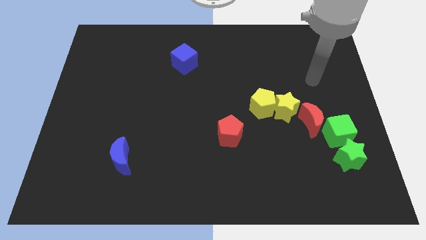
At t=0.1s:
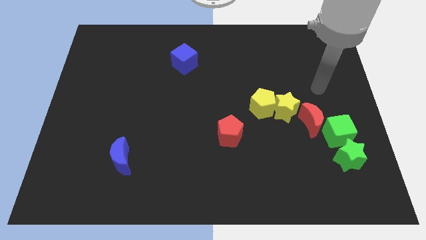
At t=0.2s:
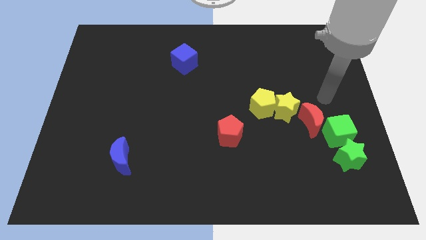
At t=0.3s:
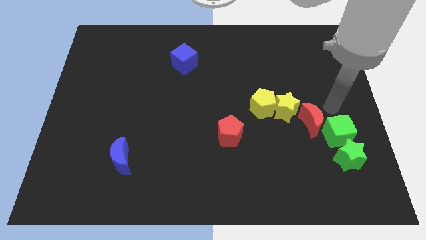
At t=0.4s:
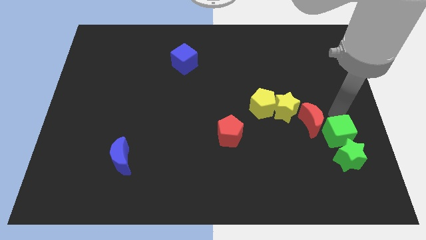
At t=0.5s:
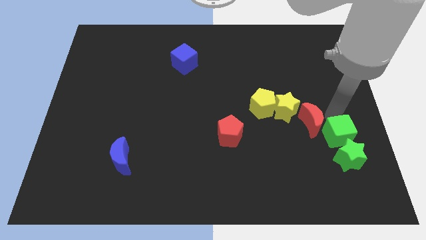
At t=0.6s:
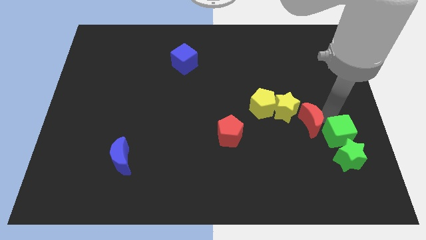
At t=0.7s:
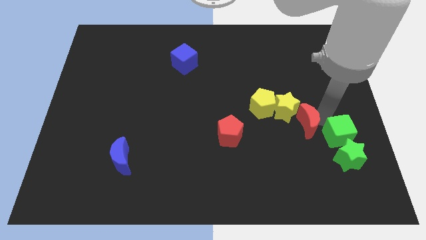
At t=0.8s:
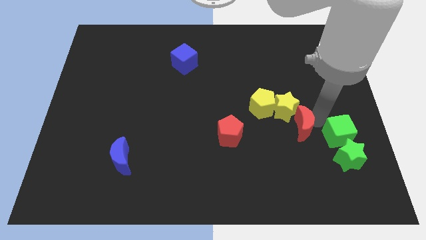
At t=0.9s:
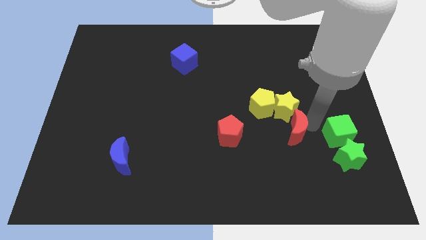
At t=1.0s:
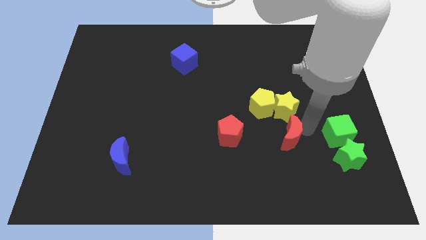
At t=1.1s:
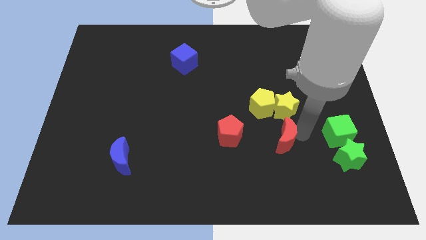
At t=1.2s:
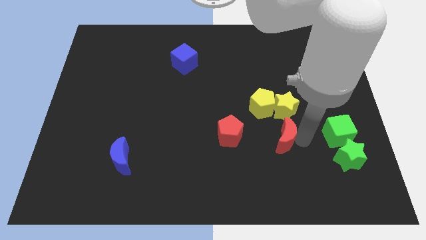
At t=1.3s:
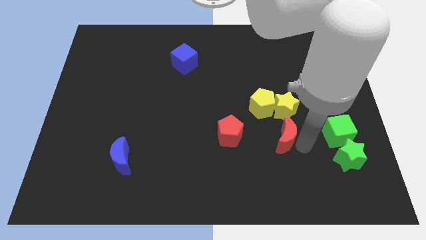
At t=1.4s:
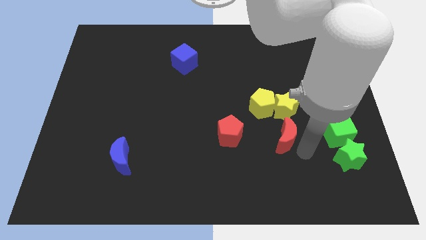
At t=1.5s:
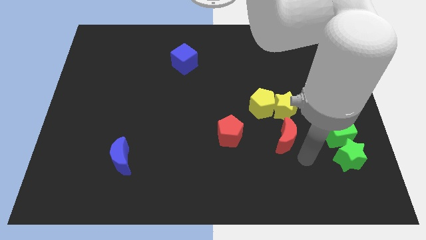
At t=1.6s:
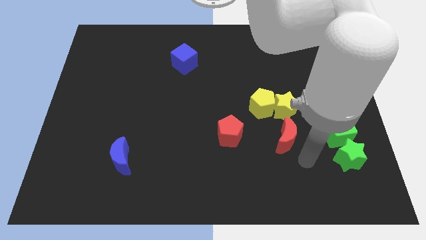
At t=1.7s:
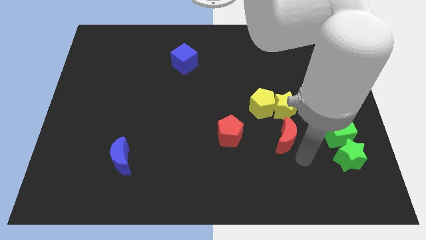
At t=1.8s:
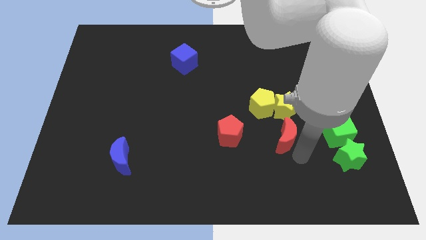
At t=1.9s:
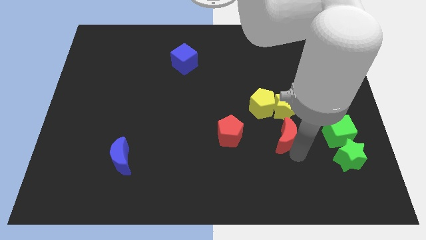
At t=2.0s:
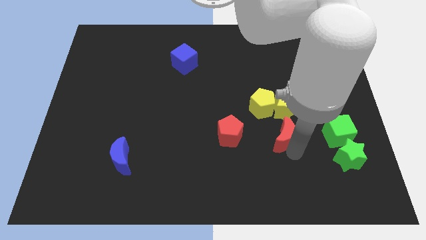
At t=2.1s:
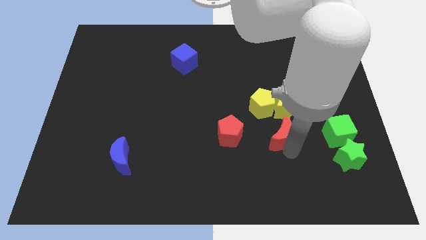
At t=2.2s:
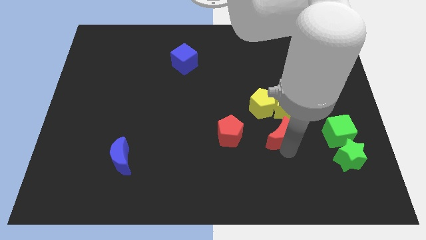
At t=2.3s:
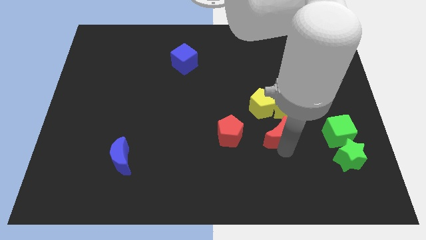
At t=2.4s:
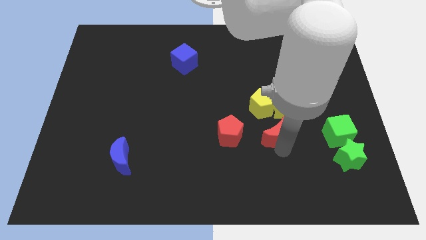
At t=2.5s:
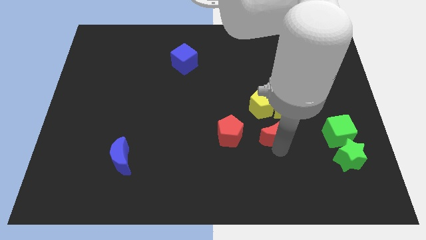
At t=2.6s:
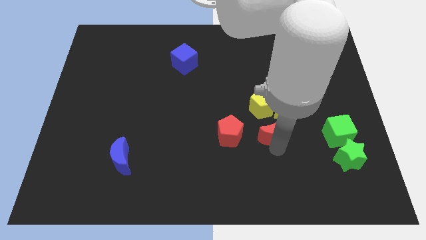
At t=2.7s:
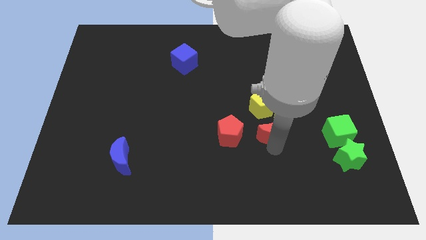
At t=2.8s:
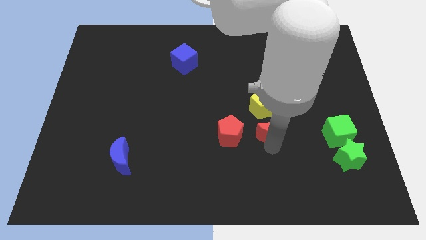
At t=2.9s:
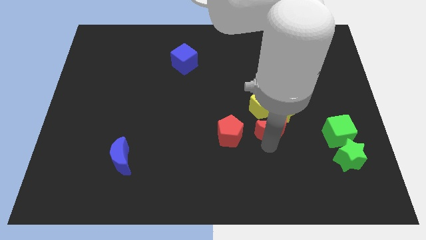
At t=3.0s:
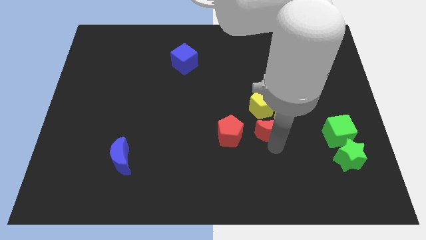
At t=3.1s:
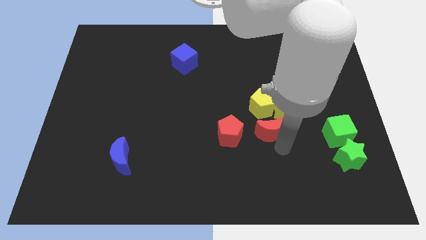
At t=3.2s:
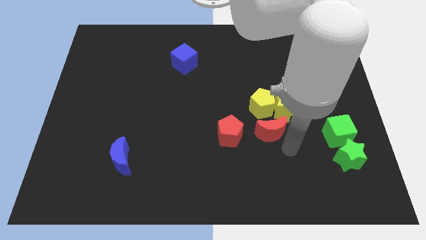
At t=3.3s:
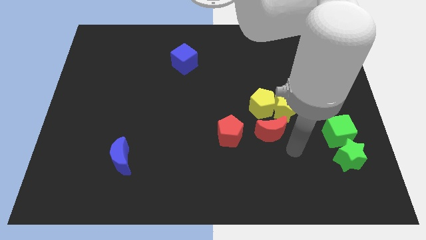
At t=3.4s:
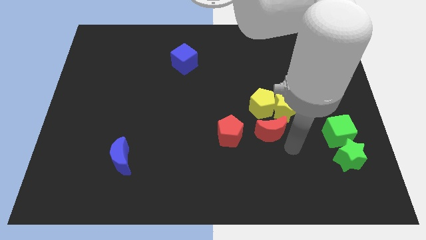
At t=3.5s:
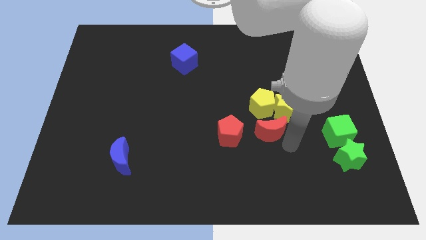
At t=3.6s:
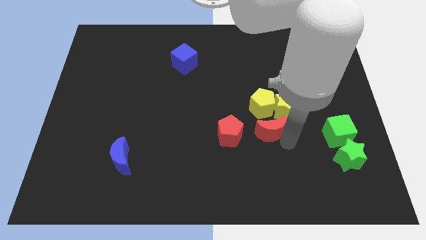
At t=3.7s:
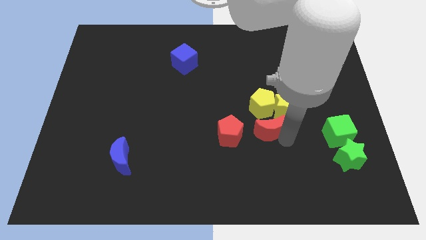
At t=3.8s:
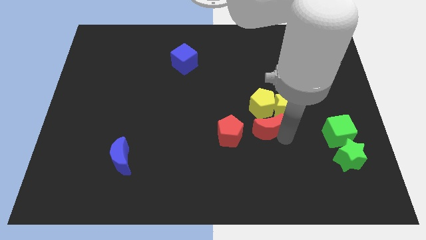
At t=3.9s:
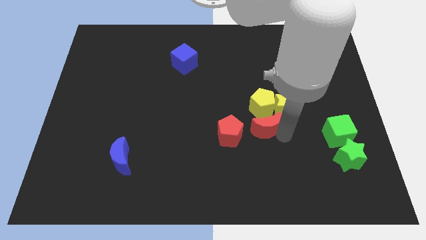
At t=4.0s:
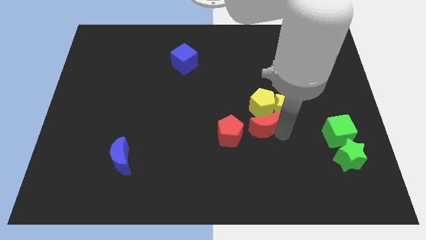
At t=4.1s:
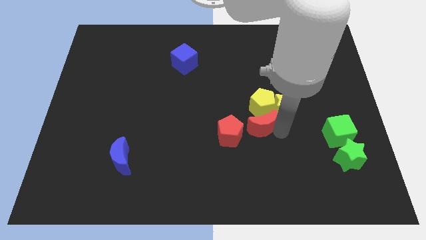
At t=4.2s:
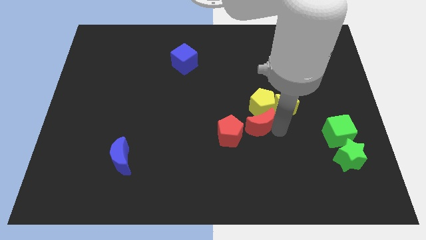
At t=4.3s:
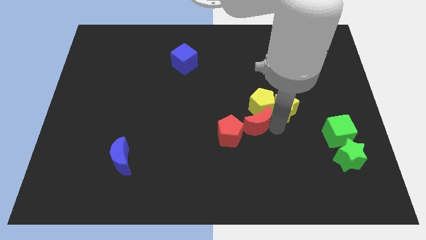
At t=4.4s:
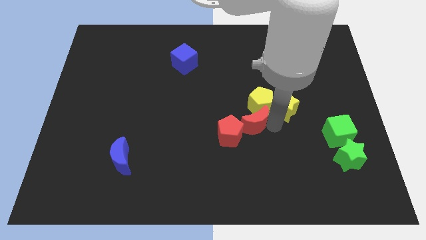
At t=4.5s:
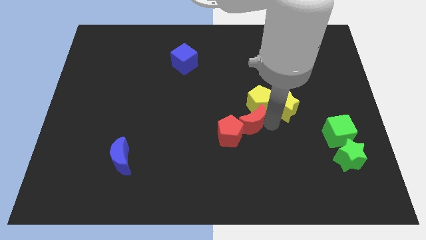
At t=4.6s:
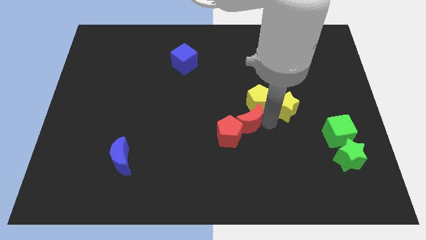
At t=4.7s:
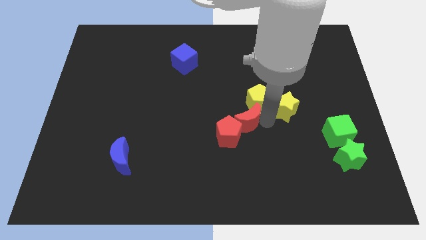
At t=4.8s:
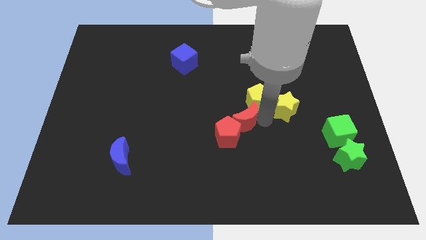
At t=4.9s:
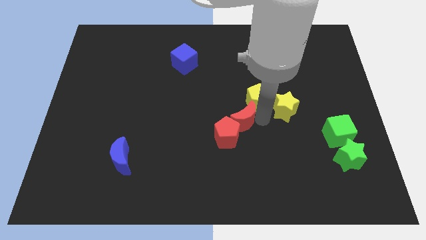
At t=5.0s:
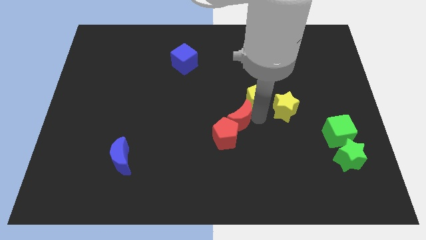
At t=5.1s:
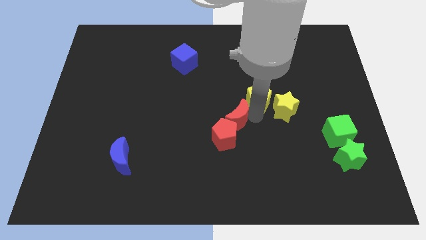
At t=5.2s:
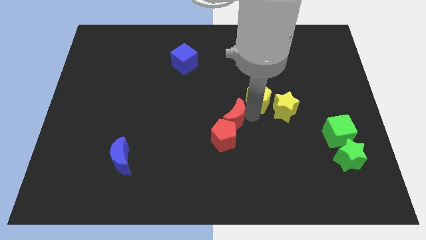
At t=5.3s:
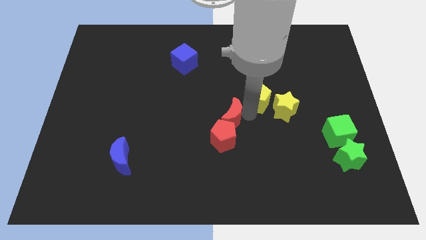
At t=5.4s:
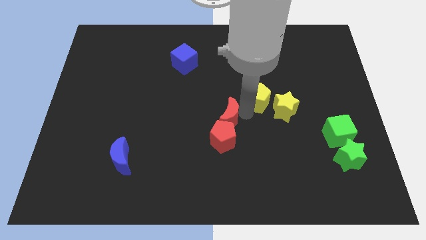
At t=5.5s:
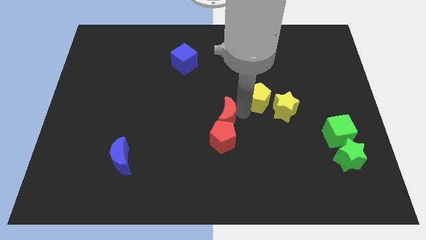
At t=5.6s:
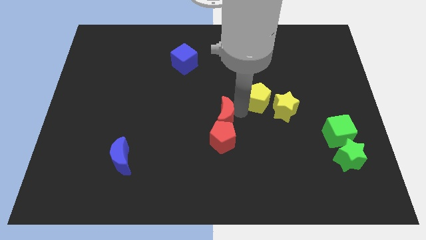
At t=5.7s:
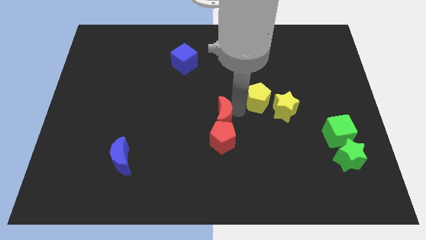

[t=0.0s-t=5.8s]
move the red moon to the left

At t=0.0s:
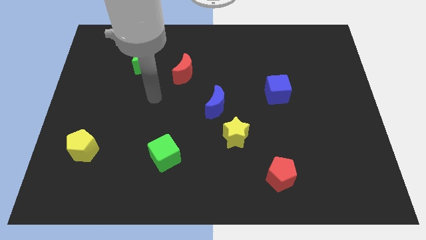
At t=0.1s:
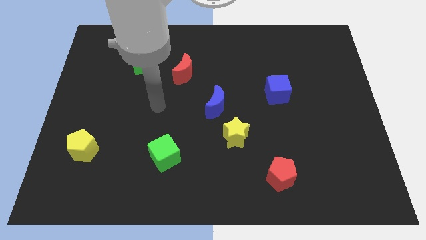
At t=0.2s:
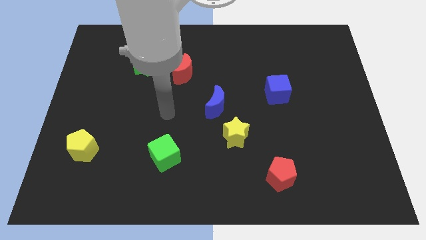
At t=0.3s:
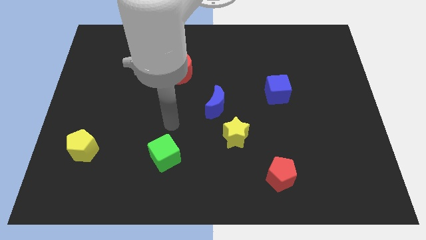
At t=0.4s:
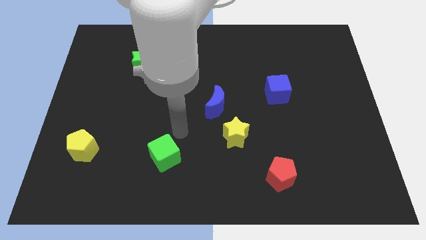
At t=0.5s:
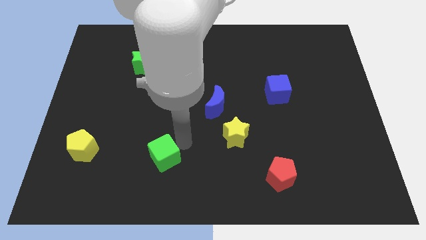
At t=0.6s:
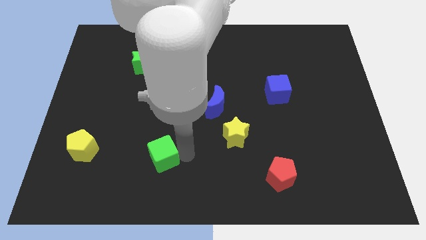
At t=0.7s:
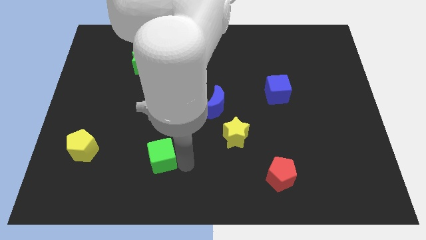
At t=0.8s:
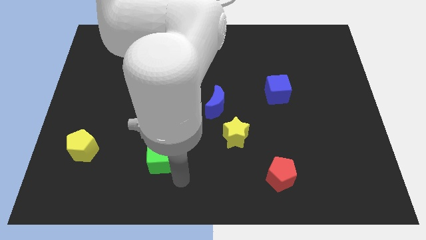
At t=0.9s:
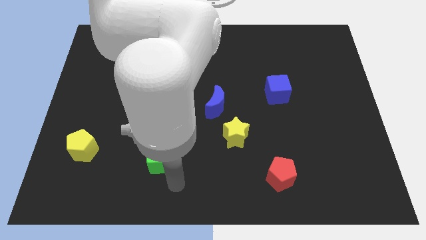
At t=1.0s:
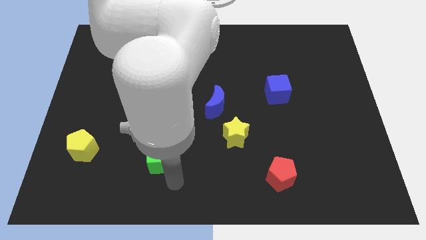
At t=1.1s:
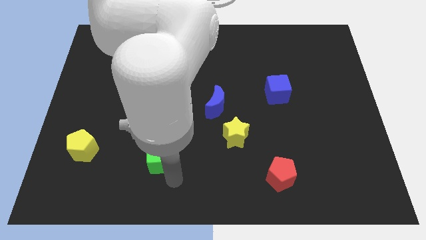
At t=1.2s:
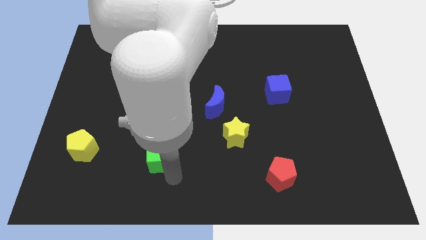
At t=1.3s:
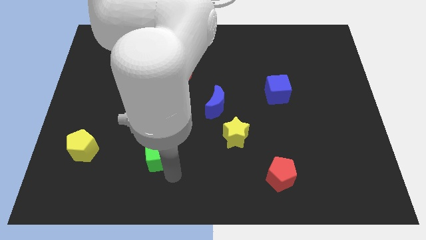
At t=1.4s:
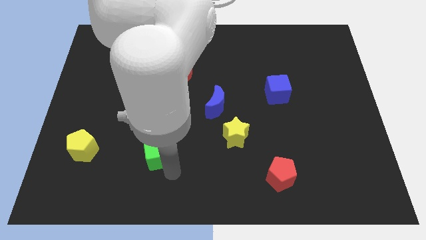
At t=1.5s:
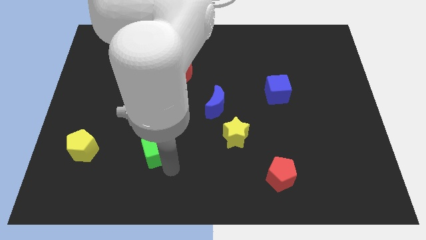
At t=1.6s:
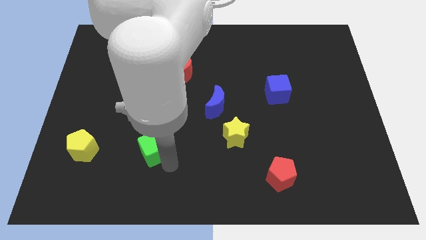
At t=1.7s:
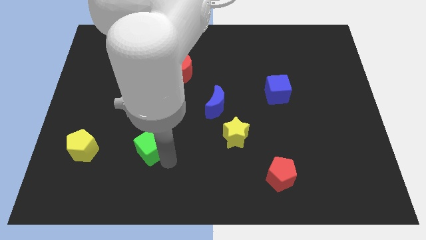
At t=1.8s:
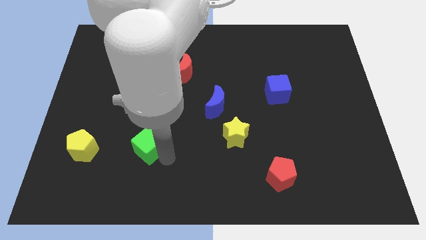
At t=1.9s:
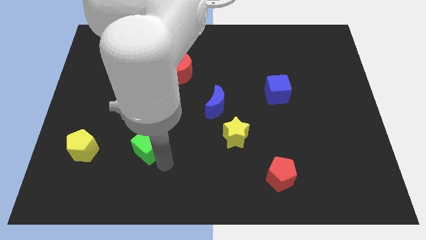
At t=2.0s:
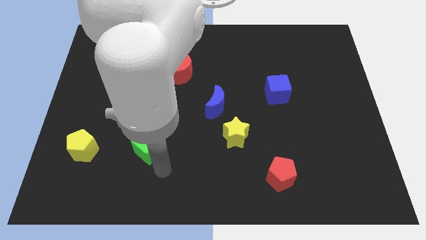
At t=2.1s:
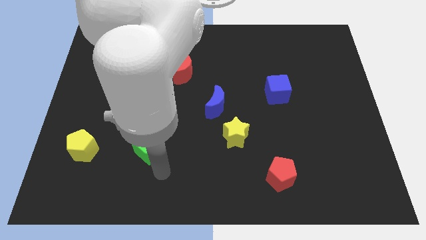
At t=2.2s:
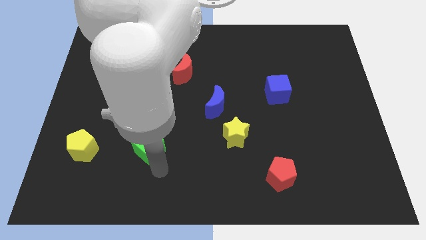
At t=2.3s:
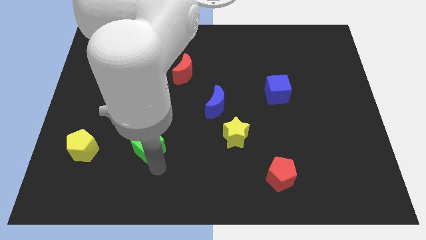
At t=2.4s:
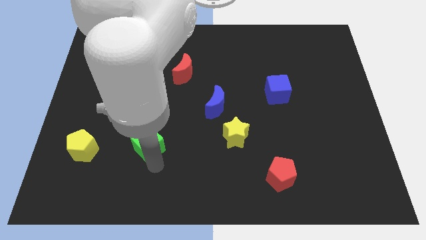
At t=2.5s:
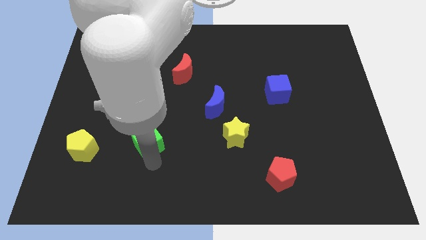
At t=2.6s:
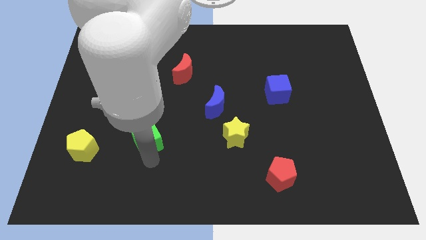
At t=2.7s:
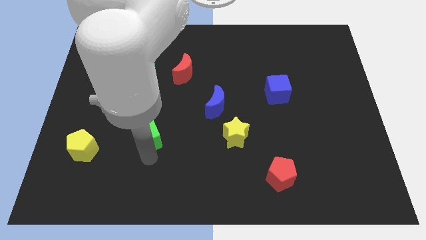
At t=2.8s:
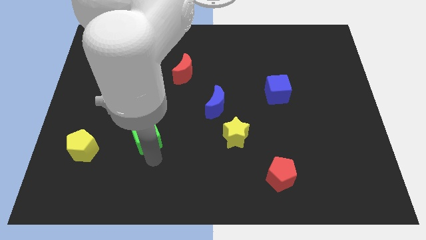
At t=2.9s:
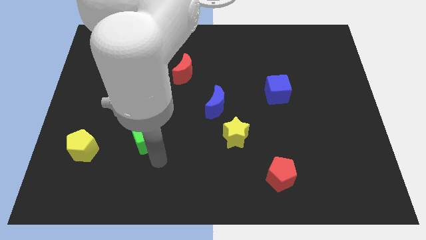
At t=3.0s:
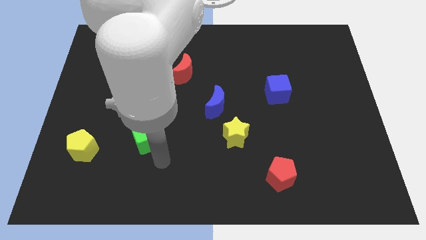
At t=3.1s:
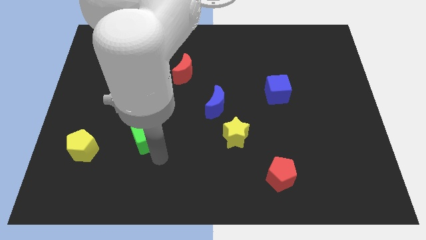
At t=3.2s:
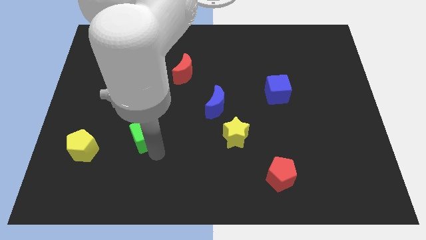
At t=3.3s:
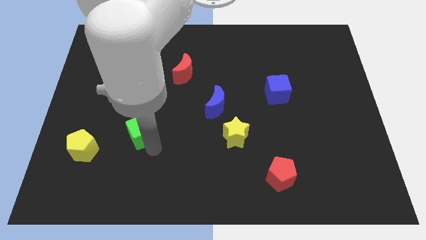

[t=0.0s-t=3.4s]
slightly move the green cube upwards and then to the left
